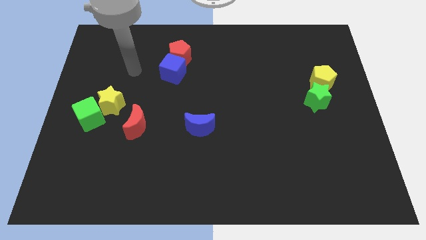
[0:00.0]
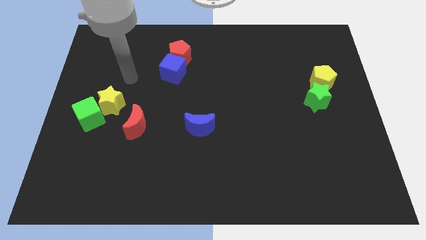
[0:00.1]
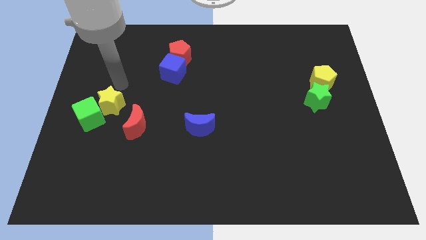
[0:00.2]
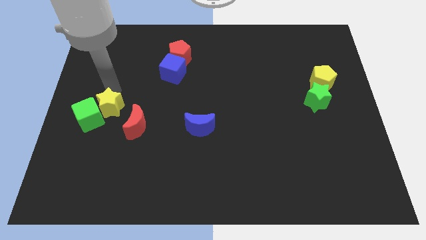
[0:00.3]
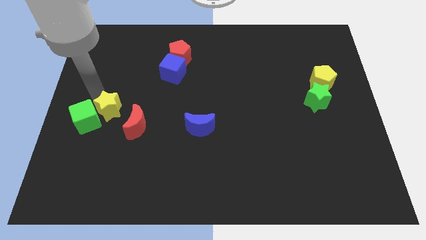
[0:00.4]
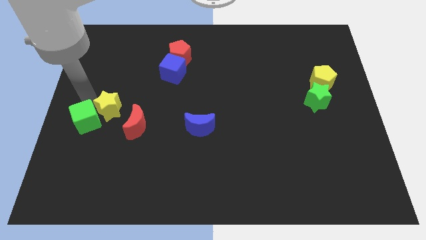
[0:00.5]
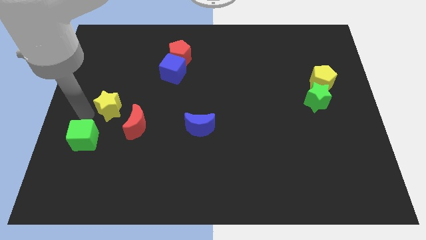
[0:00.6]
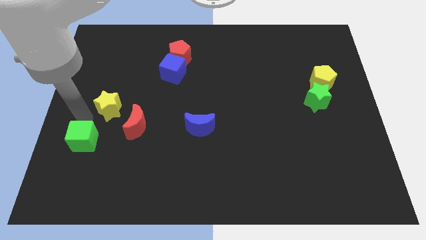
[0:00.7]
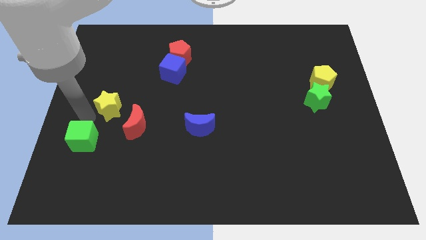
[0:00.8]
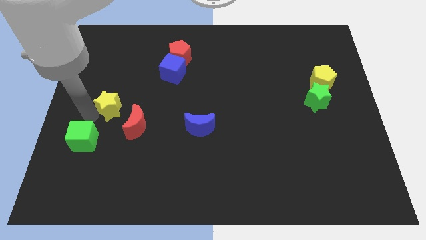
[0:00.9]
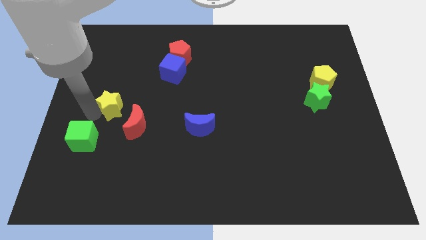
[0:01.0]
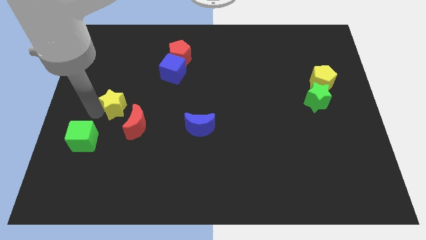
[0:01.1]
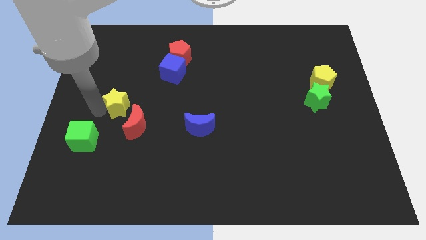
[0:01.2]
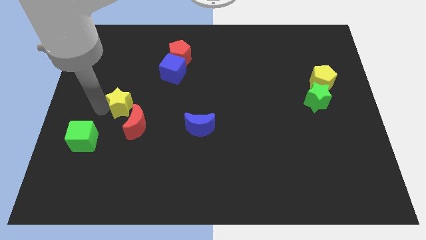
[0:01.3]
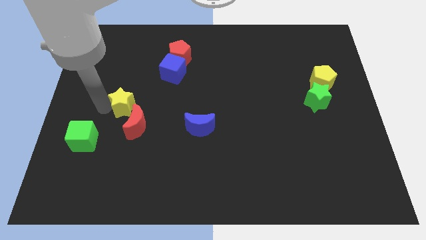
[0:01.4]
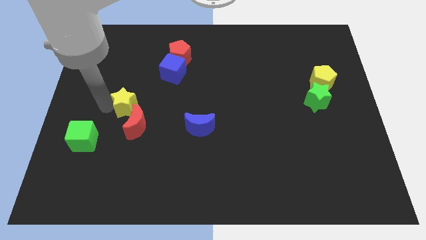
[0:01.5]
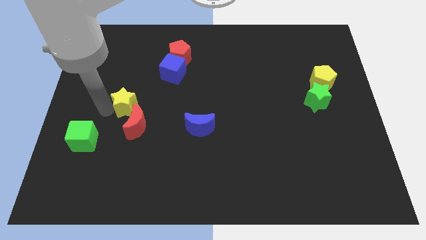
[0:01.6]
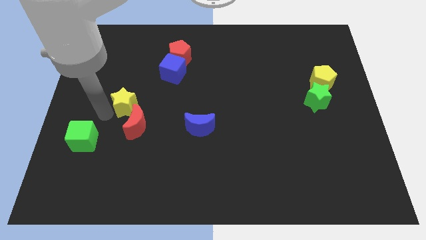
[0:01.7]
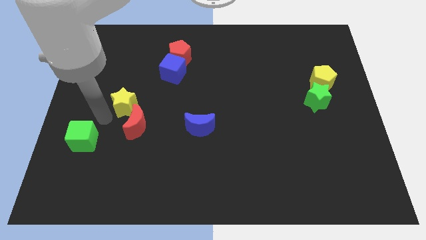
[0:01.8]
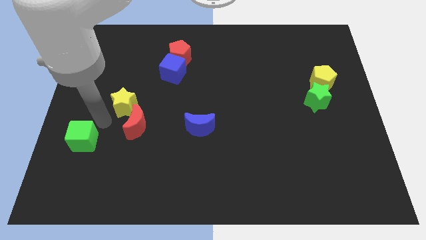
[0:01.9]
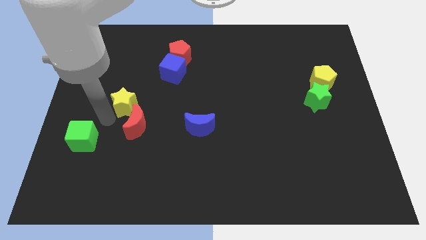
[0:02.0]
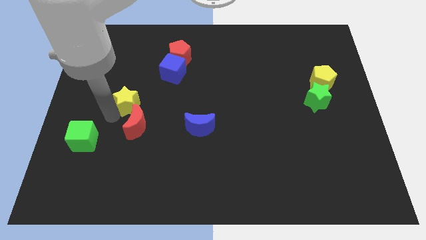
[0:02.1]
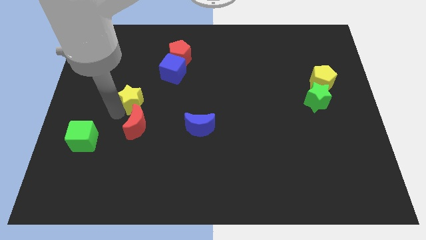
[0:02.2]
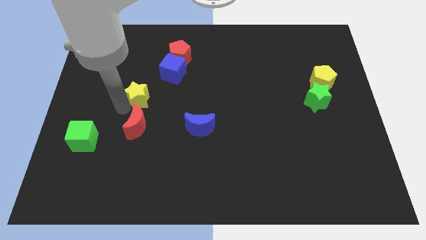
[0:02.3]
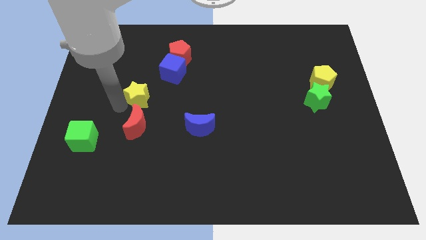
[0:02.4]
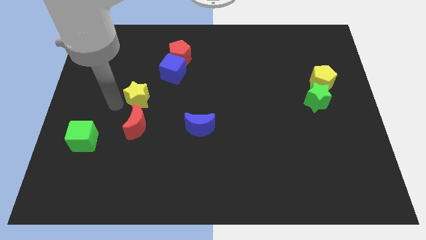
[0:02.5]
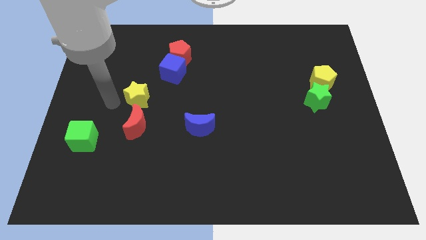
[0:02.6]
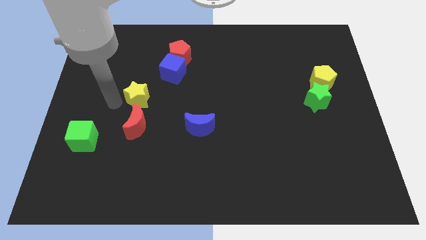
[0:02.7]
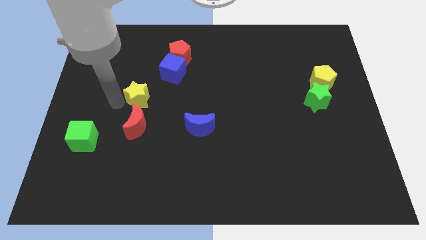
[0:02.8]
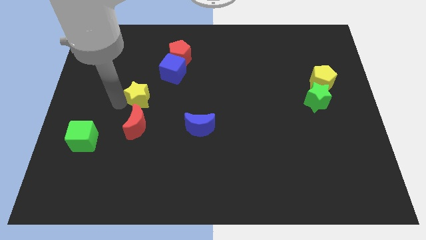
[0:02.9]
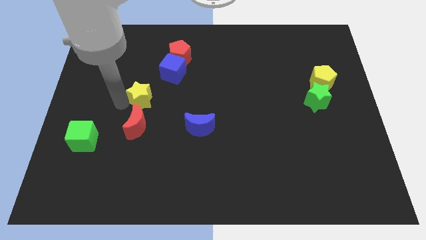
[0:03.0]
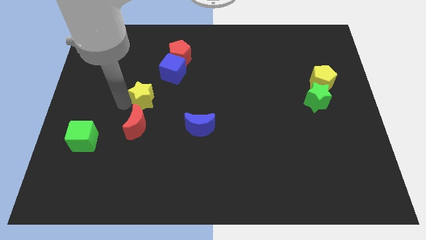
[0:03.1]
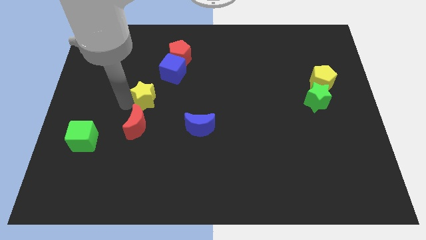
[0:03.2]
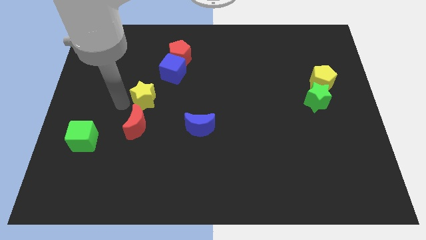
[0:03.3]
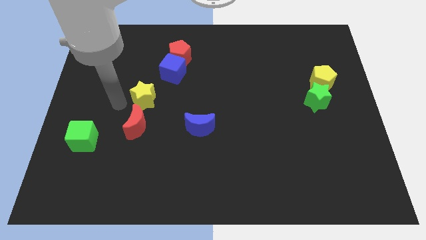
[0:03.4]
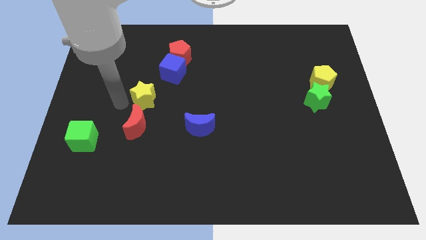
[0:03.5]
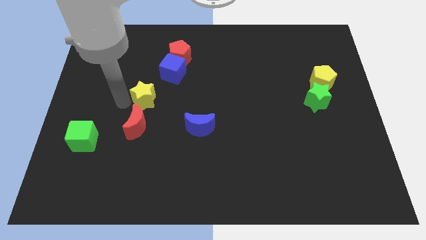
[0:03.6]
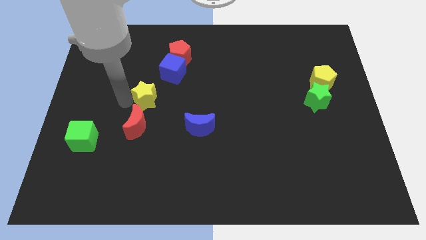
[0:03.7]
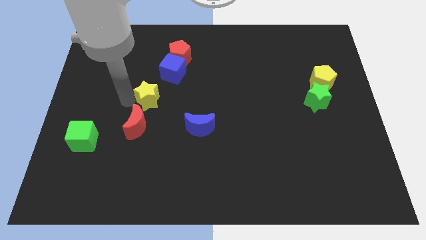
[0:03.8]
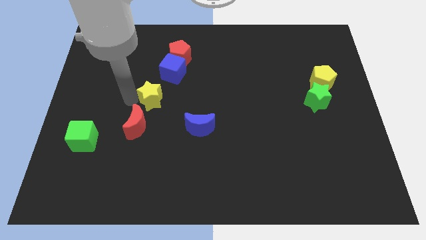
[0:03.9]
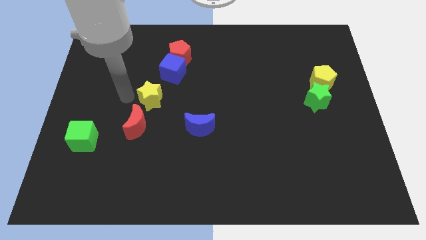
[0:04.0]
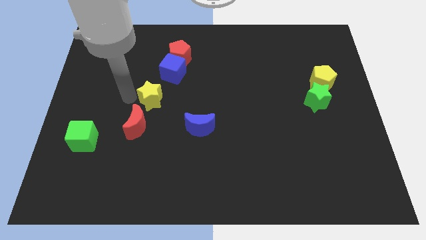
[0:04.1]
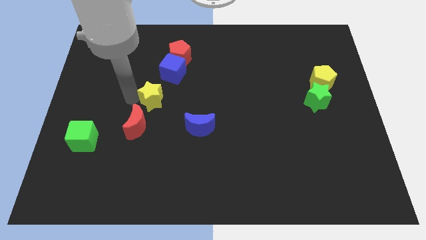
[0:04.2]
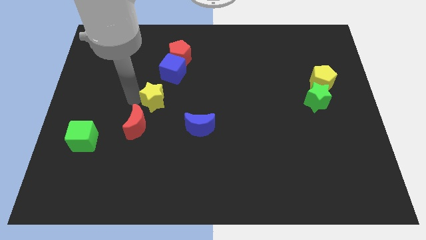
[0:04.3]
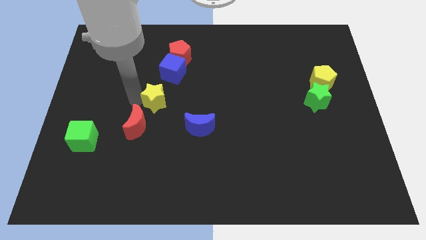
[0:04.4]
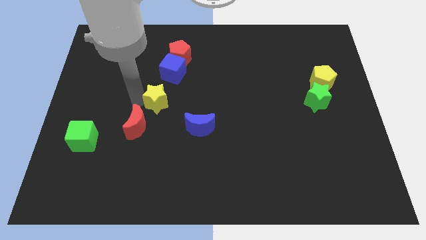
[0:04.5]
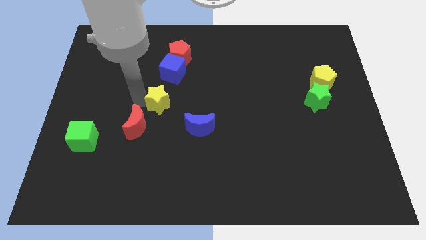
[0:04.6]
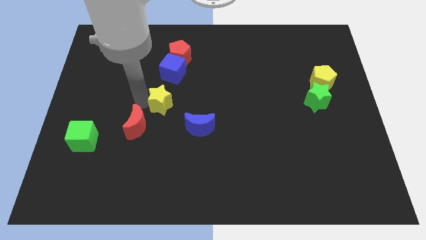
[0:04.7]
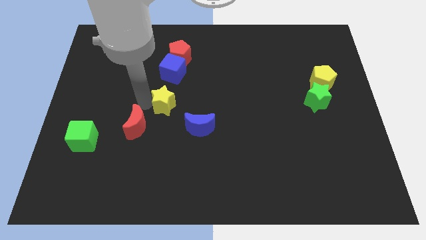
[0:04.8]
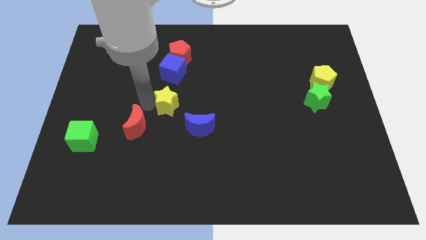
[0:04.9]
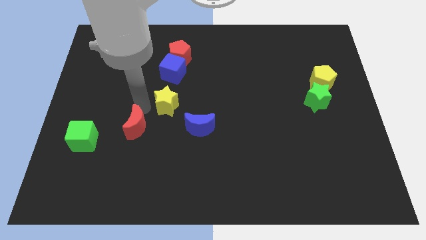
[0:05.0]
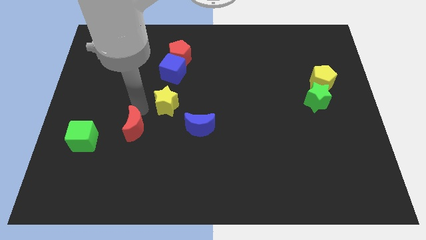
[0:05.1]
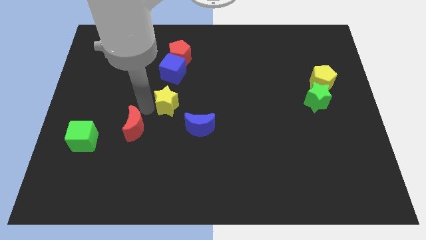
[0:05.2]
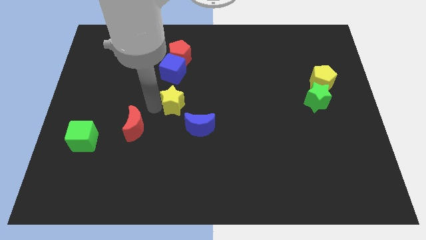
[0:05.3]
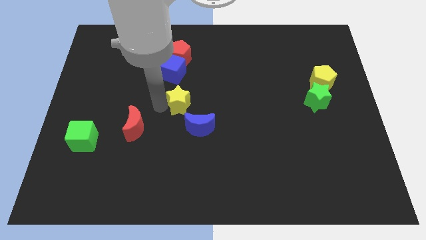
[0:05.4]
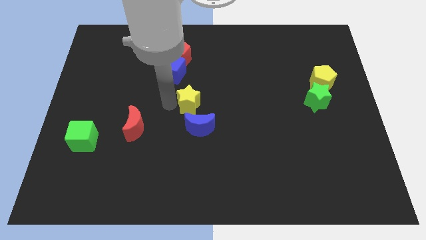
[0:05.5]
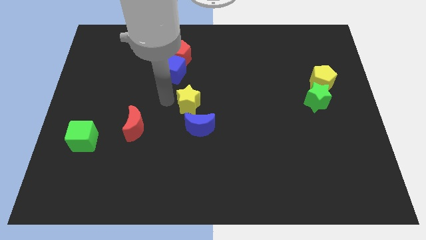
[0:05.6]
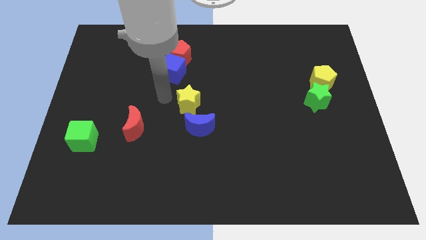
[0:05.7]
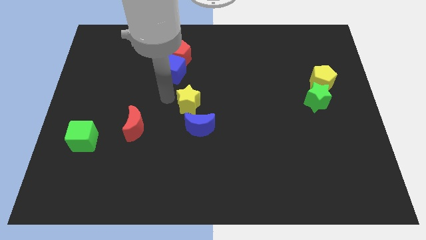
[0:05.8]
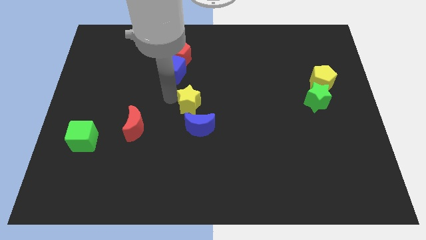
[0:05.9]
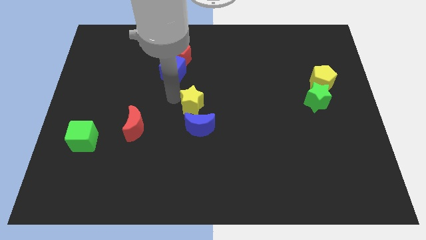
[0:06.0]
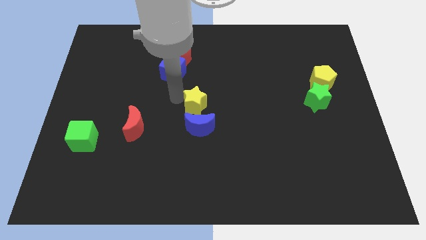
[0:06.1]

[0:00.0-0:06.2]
move the yellow star right

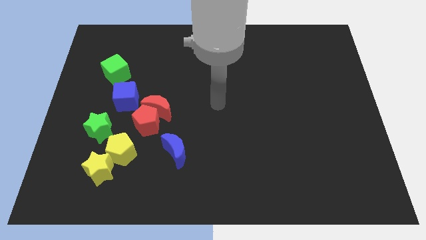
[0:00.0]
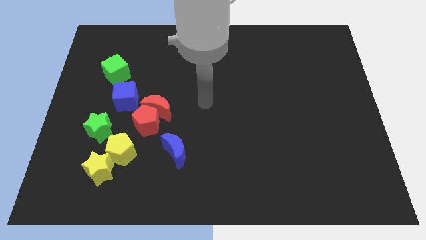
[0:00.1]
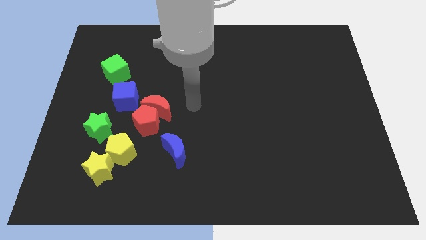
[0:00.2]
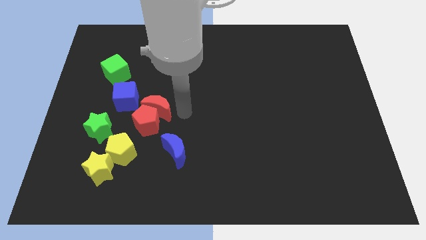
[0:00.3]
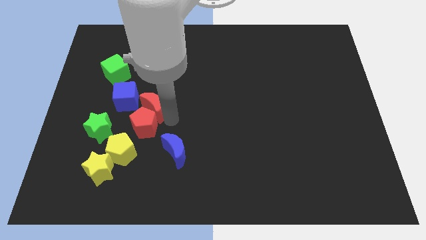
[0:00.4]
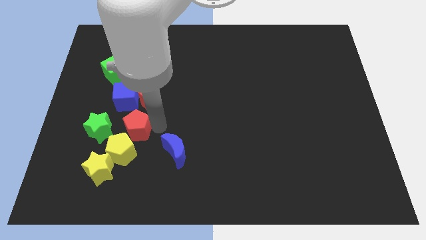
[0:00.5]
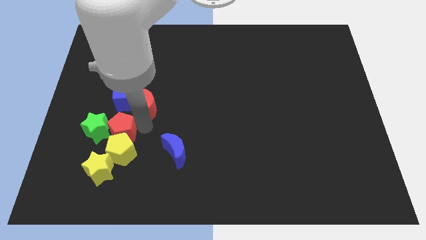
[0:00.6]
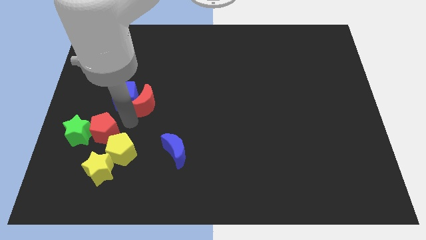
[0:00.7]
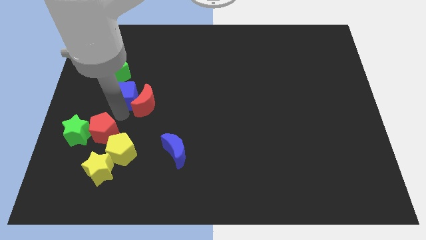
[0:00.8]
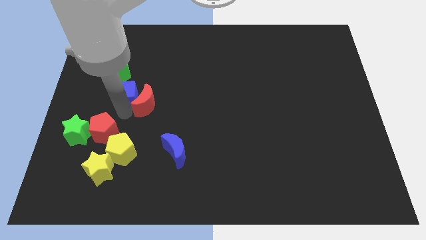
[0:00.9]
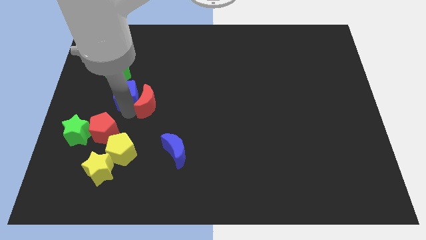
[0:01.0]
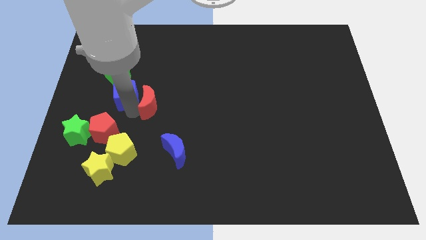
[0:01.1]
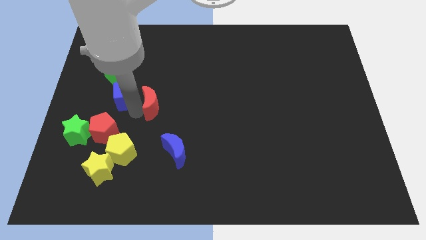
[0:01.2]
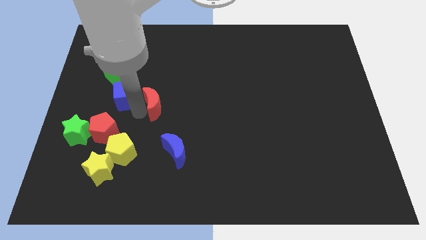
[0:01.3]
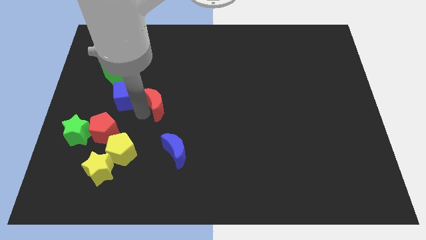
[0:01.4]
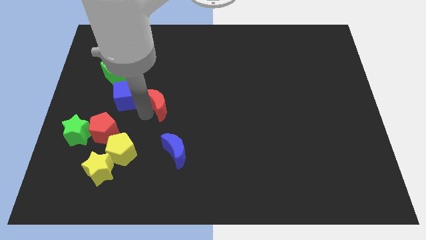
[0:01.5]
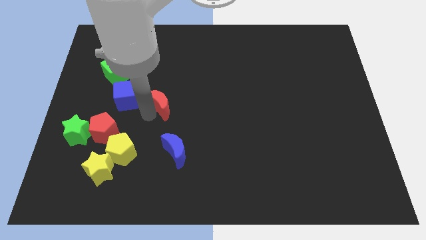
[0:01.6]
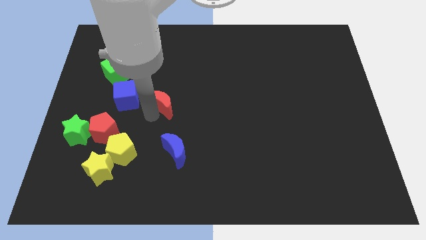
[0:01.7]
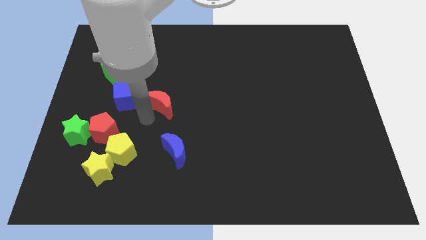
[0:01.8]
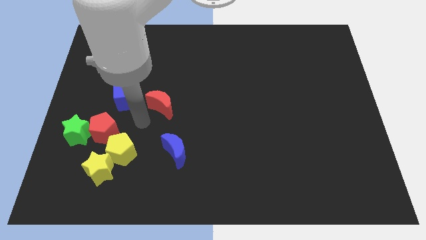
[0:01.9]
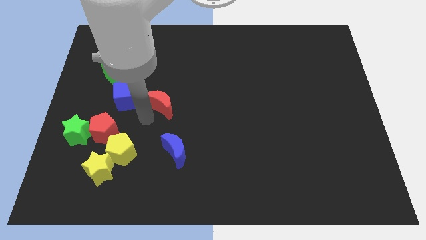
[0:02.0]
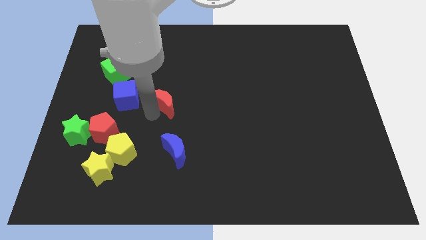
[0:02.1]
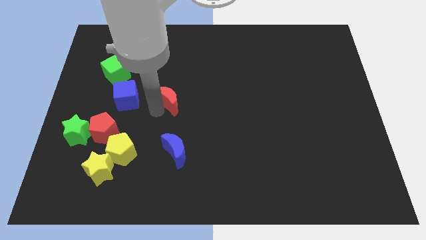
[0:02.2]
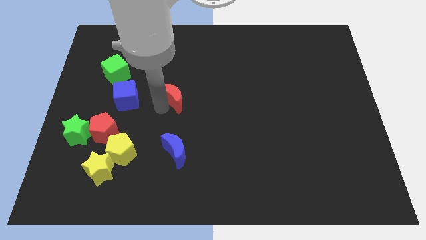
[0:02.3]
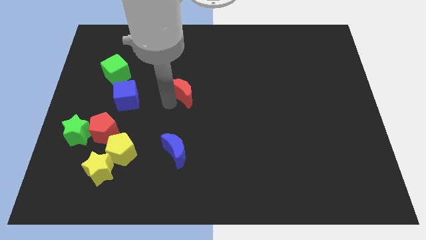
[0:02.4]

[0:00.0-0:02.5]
slightly move the red moon diagonally upwards and right
